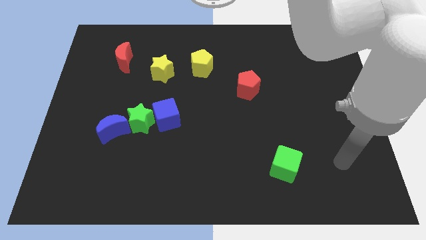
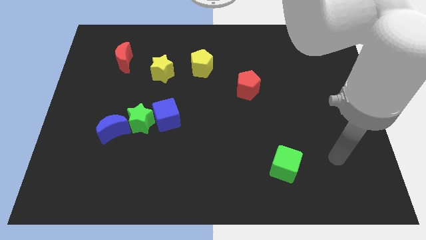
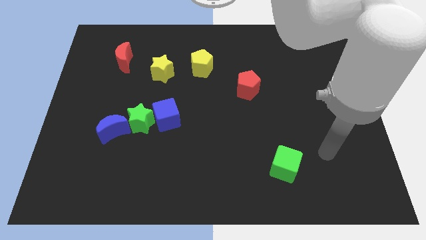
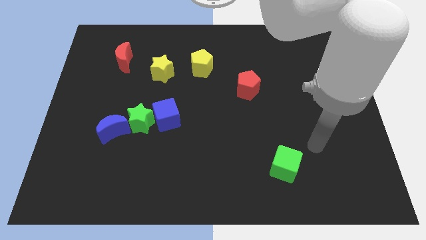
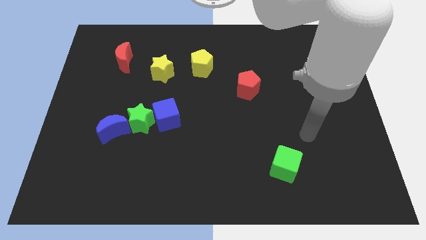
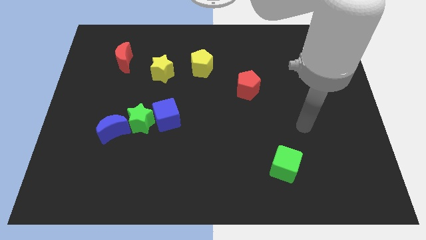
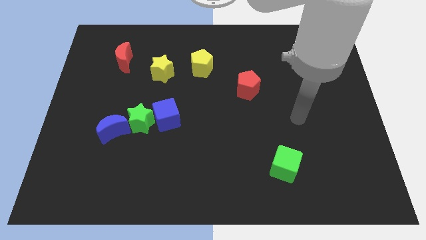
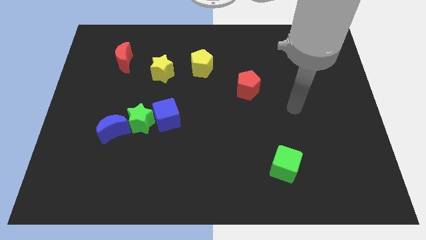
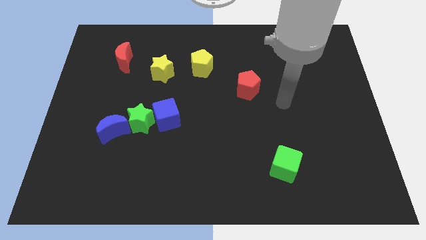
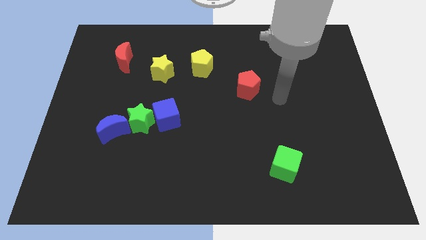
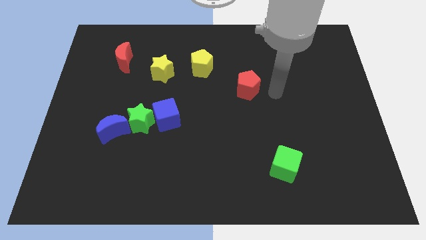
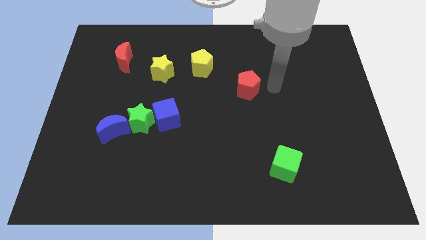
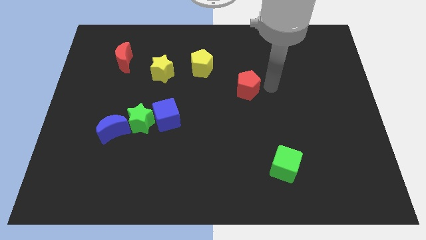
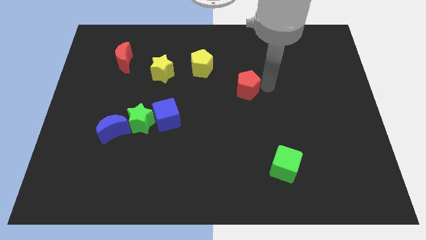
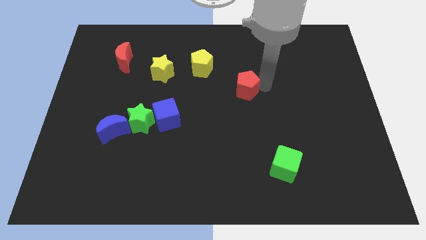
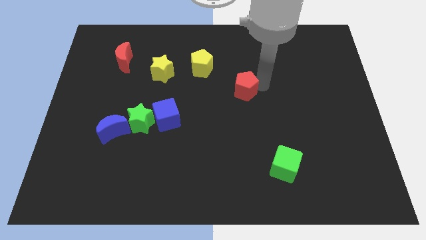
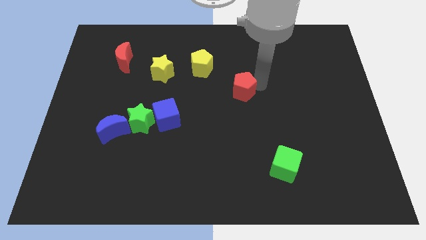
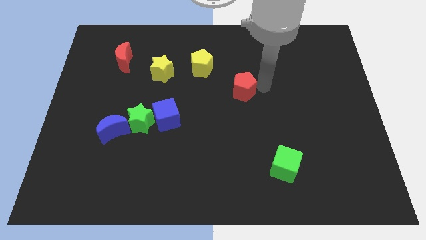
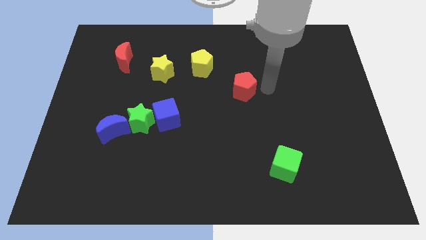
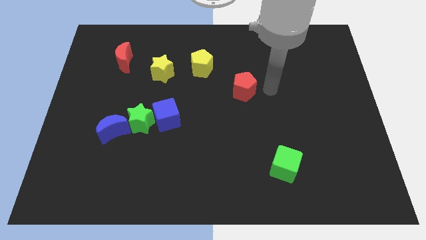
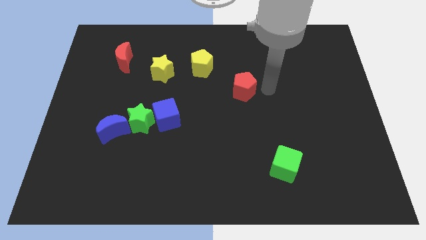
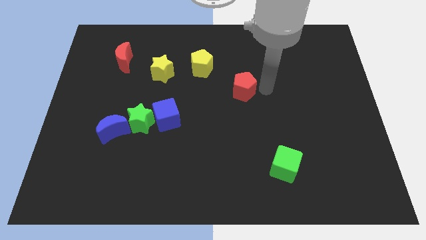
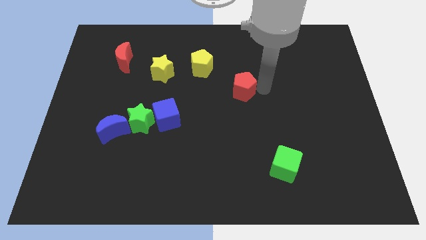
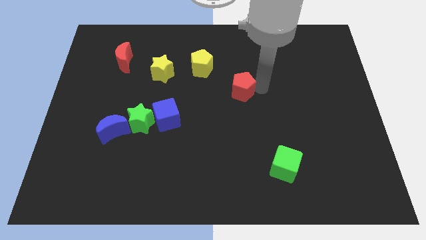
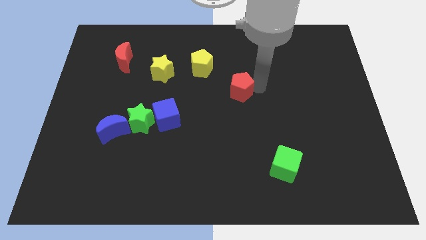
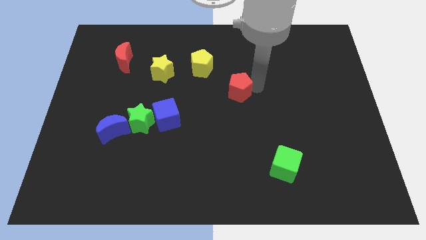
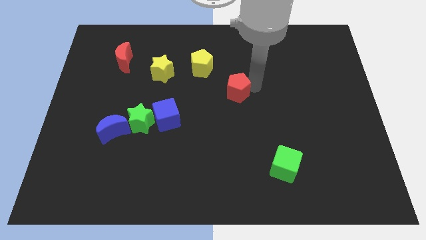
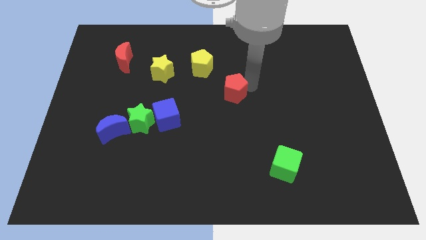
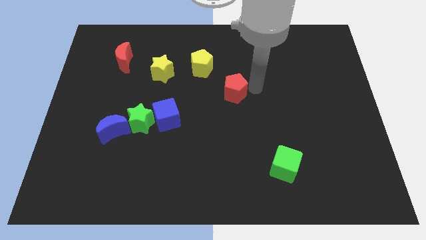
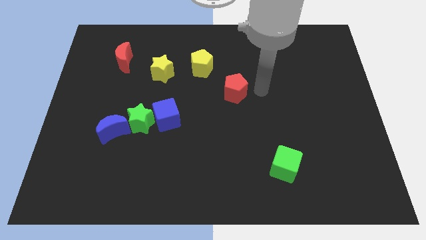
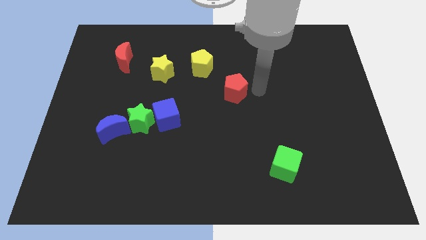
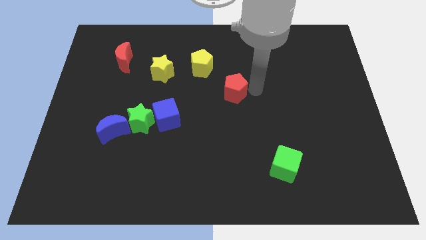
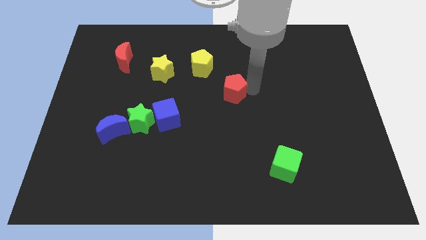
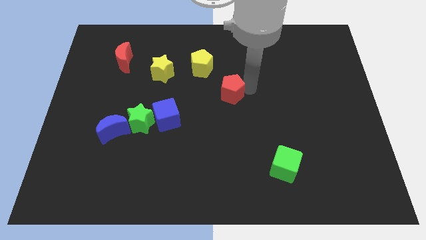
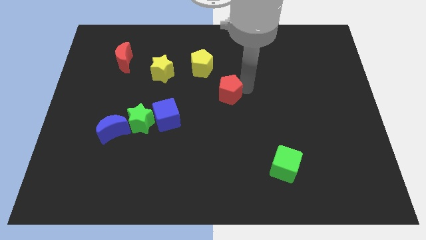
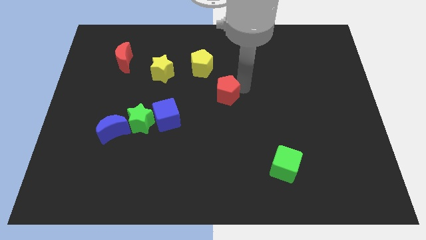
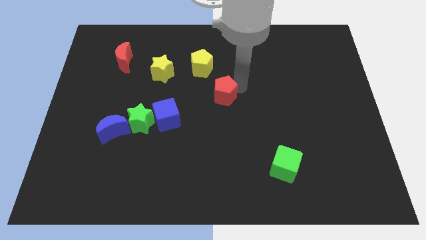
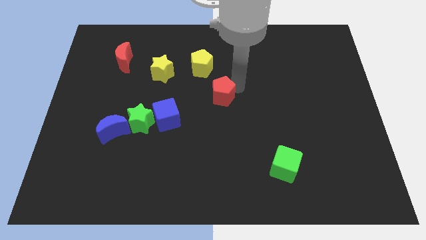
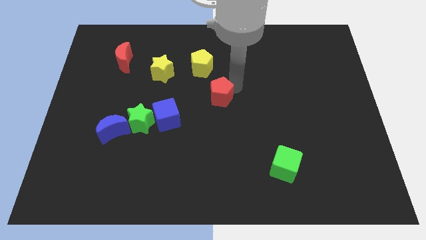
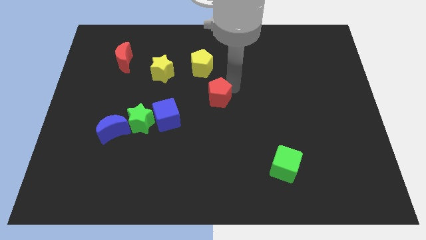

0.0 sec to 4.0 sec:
slide the red pentagon left a little bit

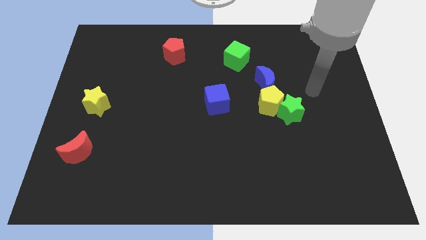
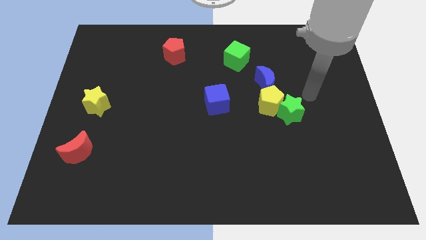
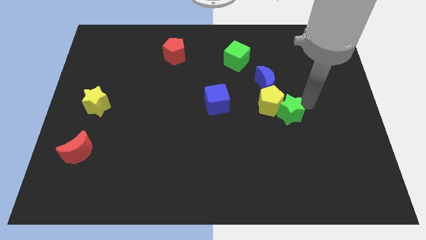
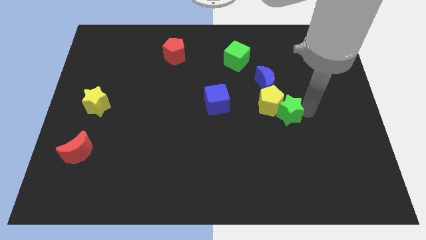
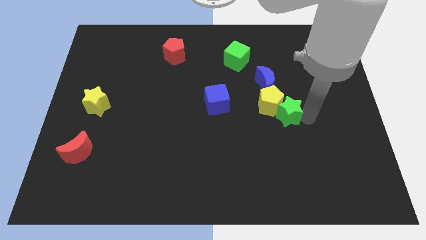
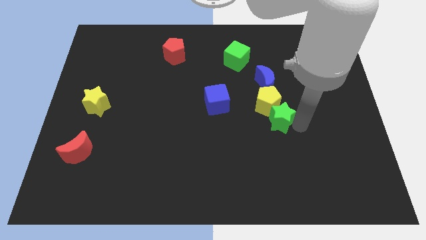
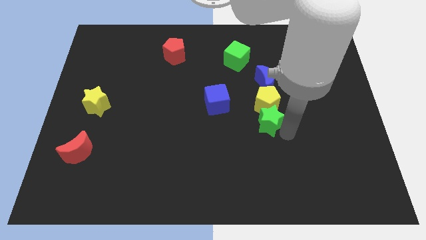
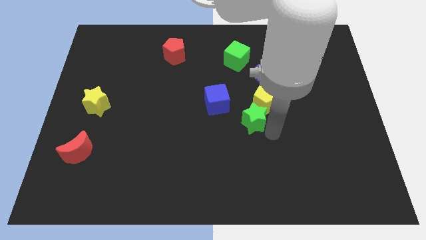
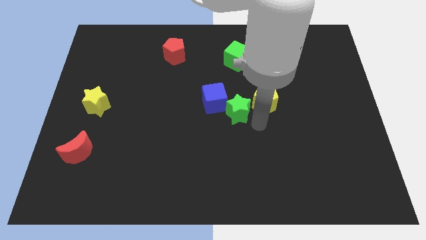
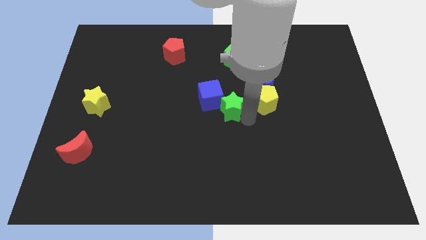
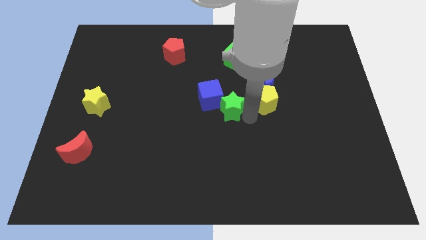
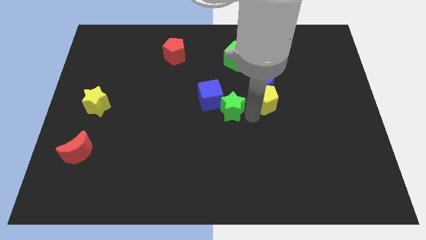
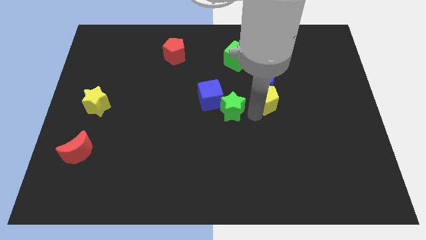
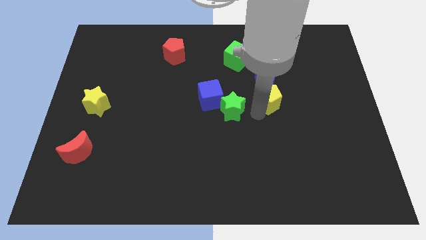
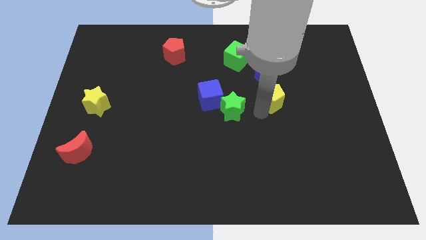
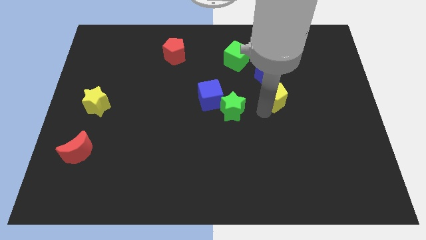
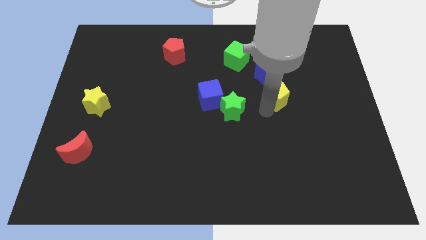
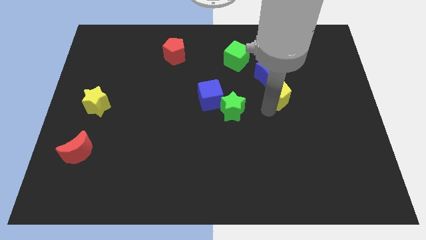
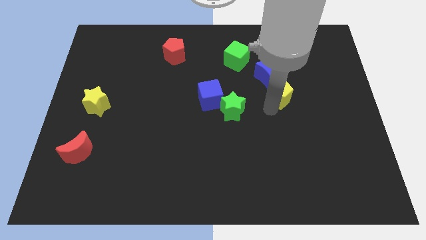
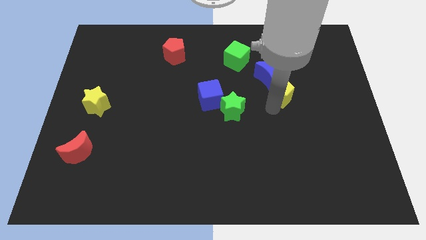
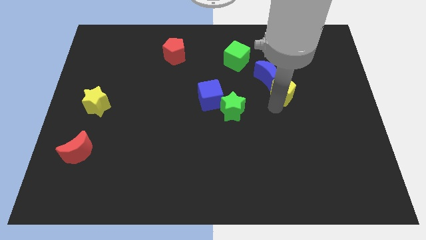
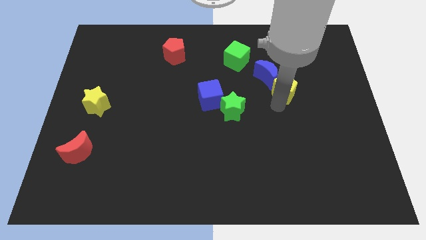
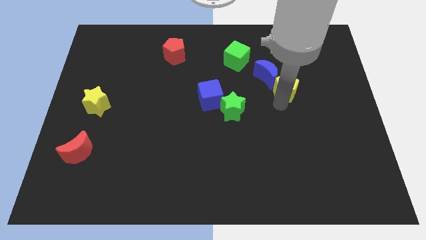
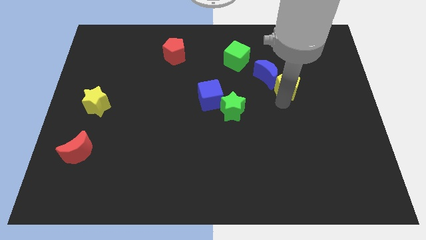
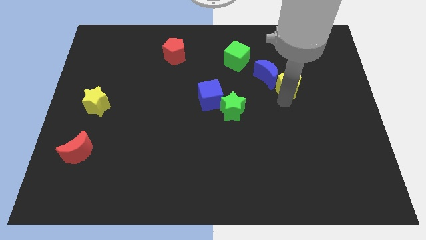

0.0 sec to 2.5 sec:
slightly move the yellow pentagon upwards and to the right diagonally

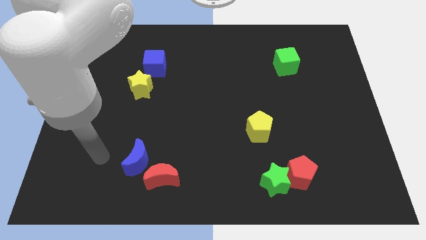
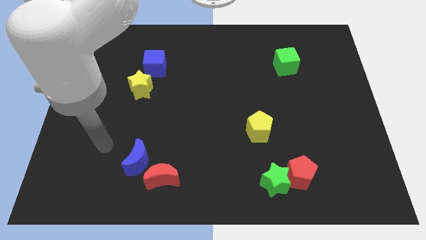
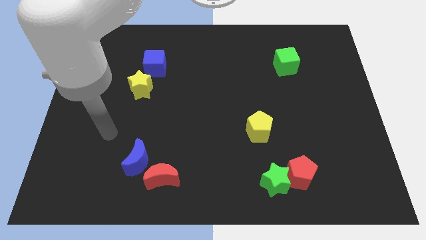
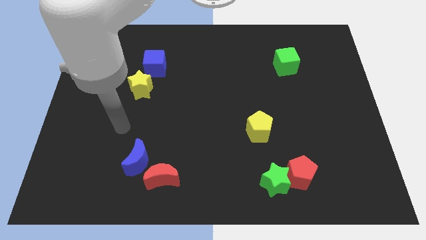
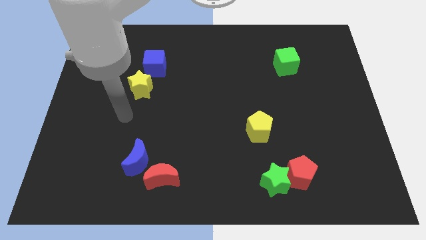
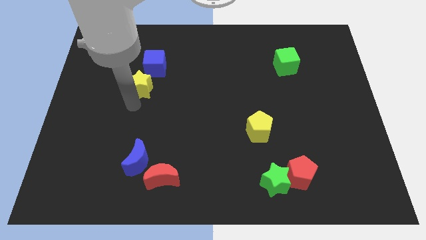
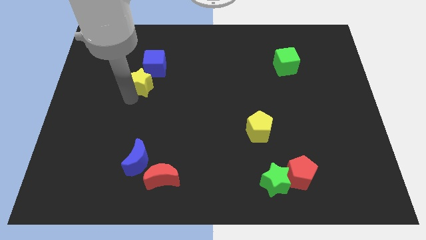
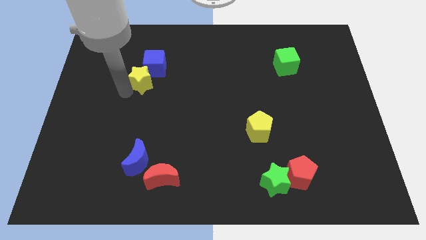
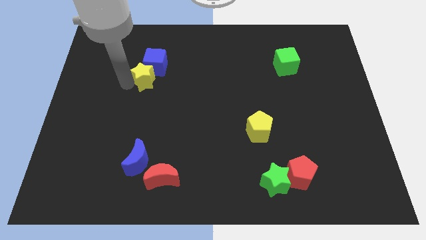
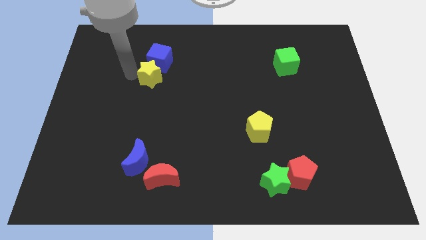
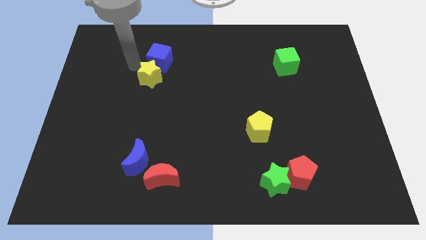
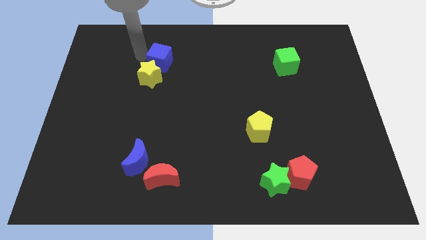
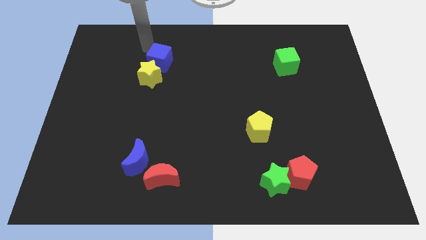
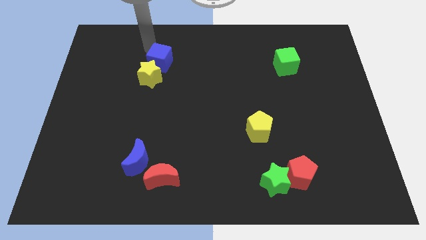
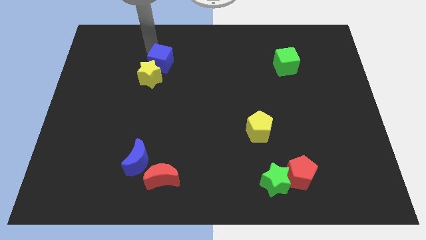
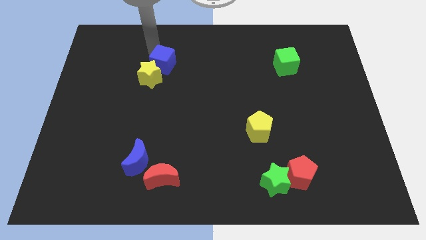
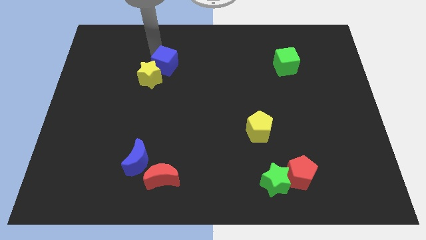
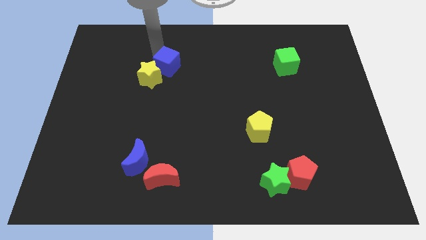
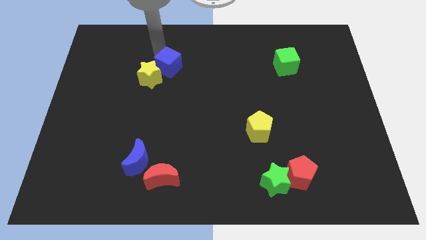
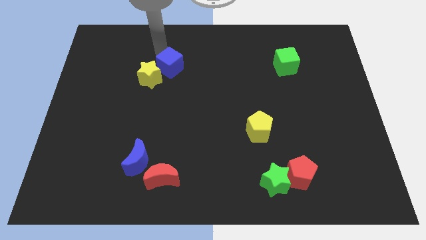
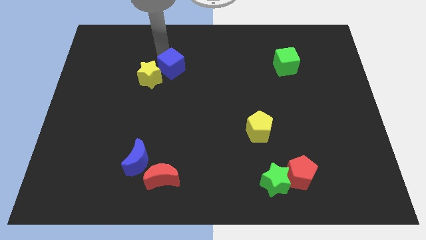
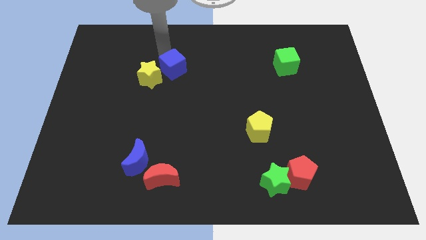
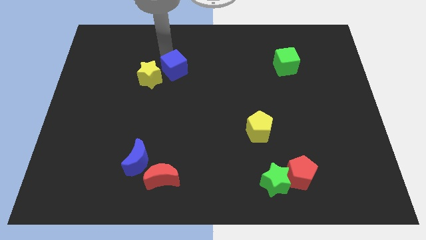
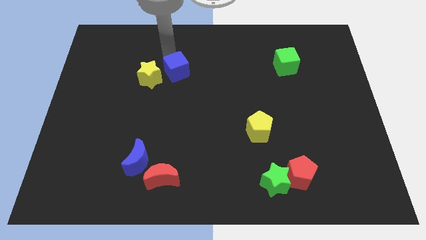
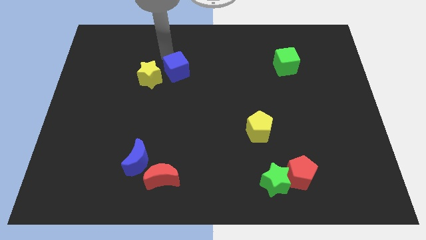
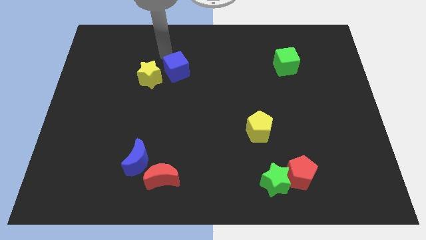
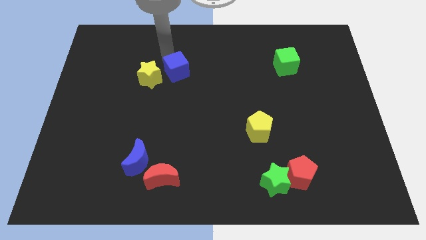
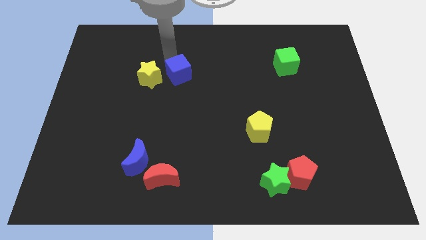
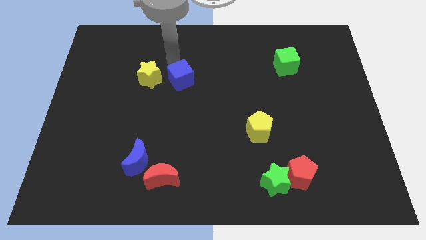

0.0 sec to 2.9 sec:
slightly push the blue cube downwards and right diagonally
